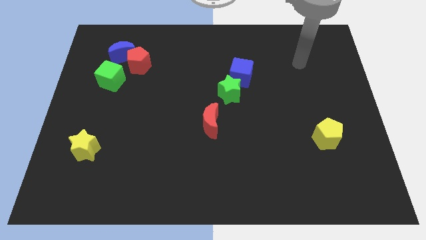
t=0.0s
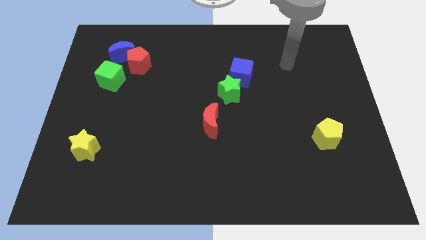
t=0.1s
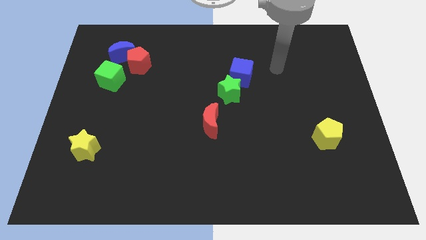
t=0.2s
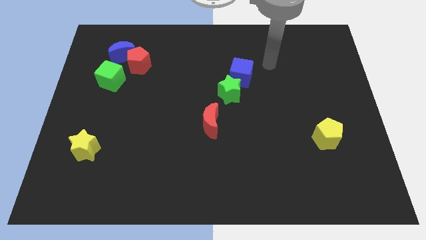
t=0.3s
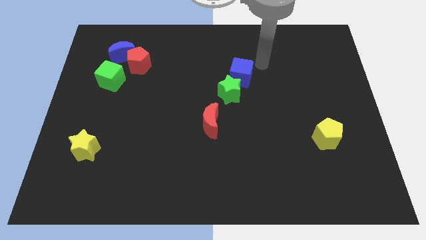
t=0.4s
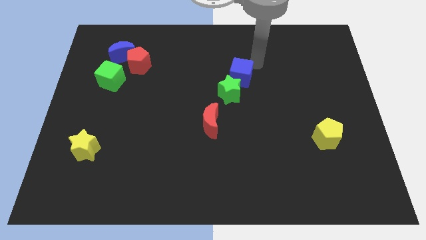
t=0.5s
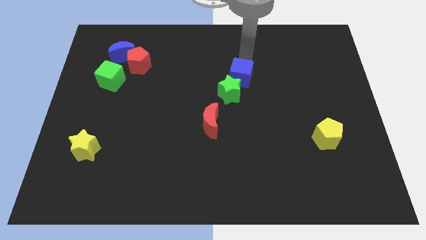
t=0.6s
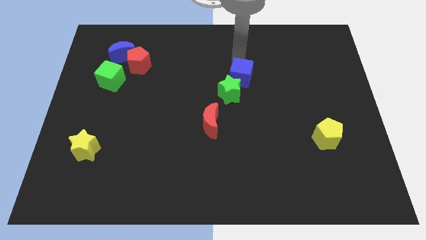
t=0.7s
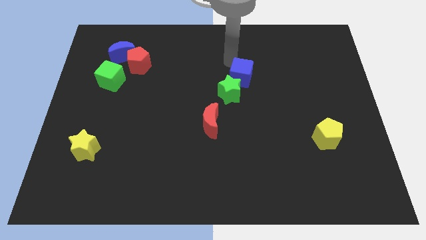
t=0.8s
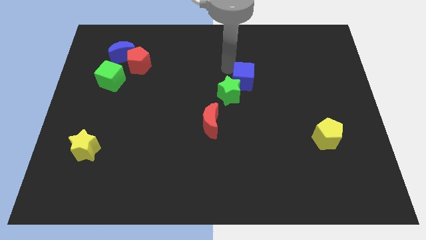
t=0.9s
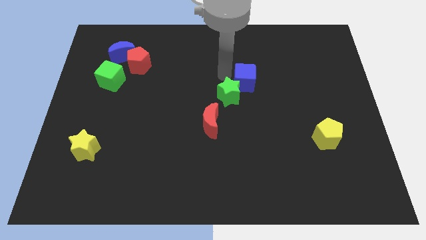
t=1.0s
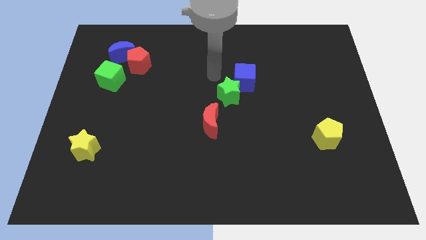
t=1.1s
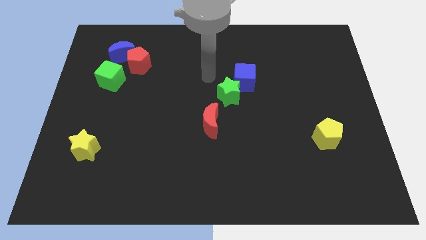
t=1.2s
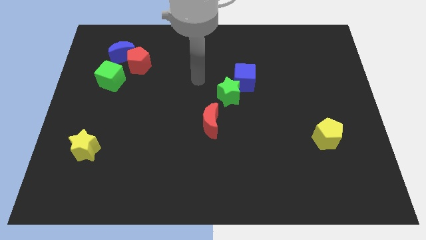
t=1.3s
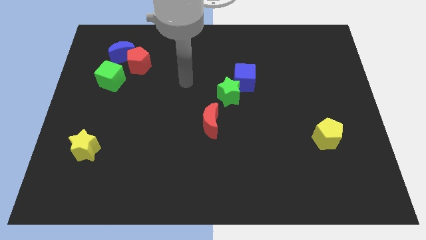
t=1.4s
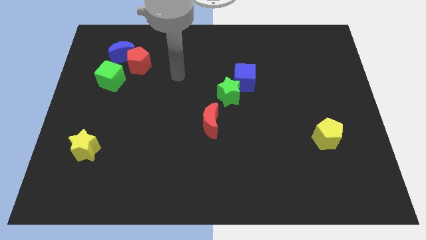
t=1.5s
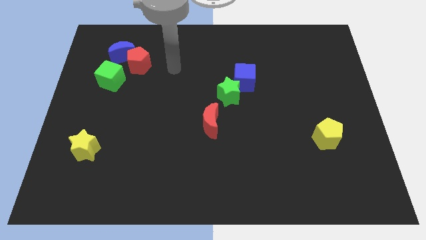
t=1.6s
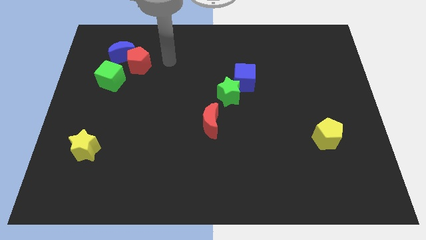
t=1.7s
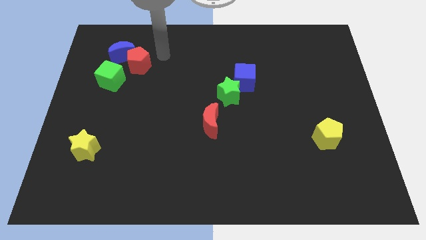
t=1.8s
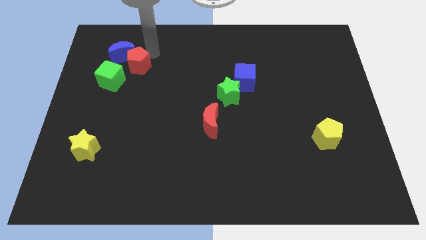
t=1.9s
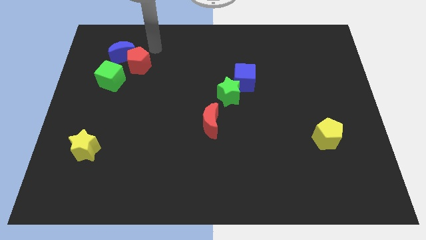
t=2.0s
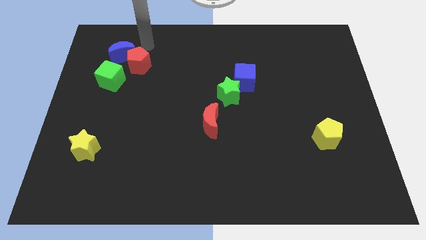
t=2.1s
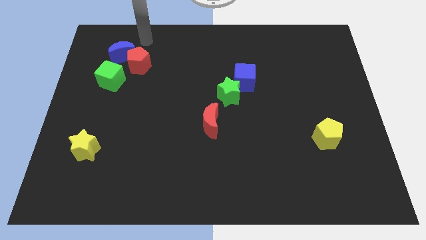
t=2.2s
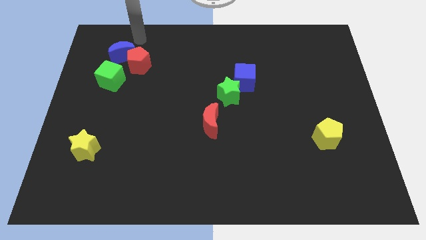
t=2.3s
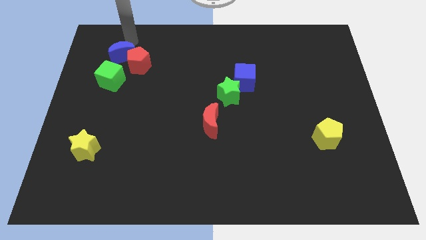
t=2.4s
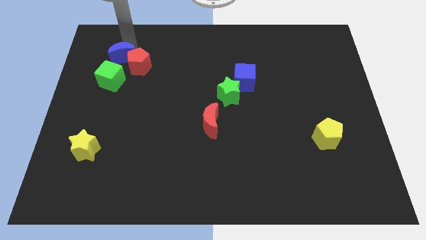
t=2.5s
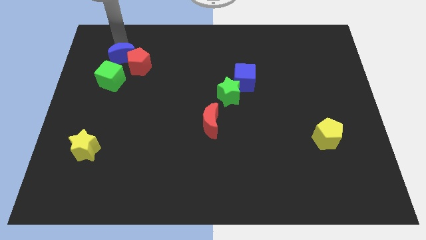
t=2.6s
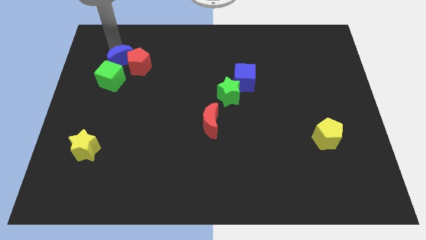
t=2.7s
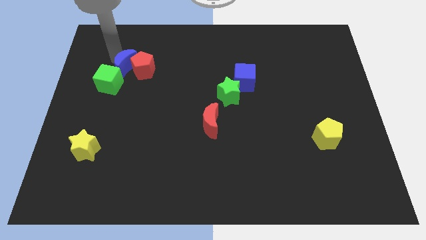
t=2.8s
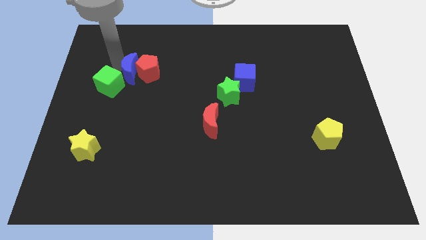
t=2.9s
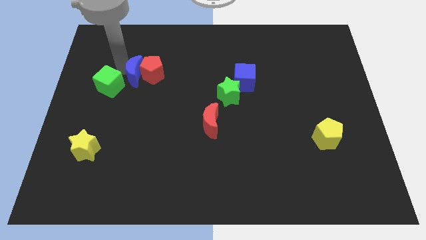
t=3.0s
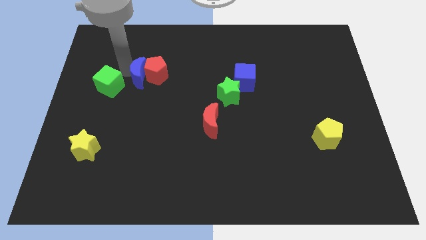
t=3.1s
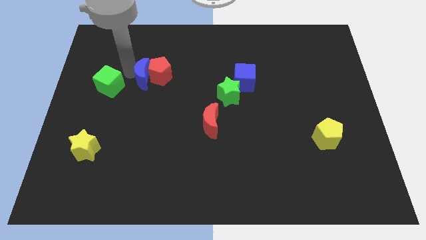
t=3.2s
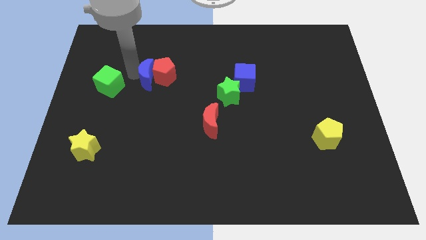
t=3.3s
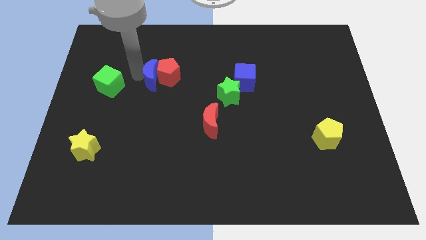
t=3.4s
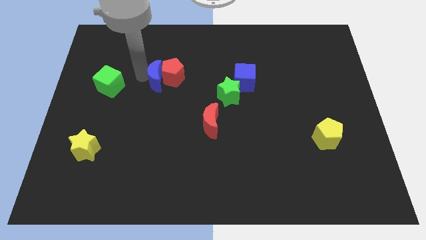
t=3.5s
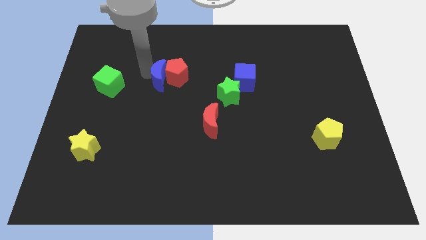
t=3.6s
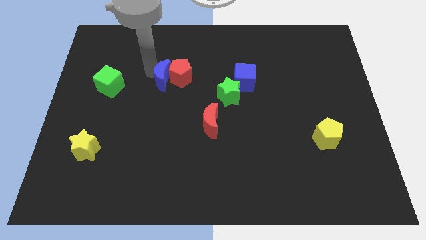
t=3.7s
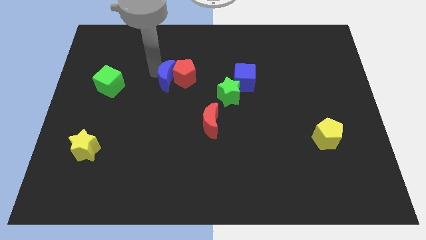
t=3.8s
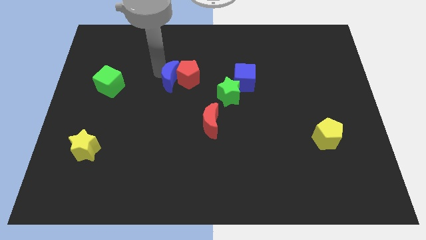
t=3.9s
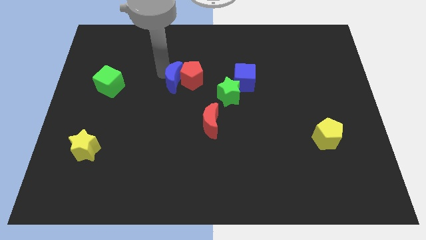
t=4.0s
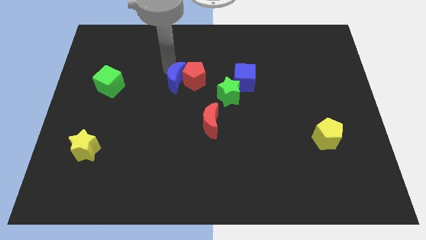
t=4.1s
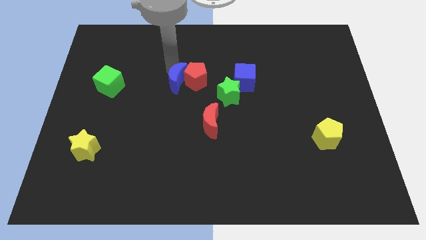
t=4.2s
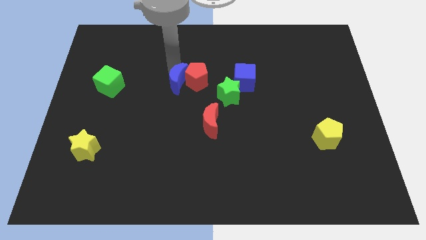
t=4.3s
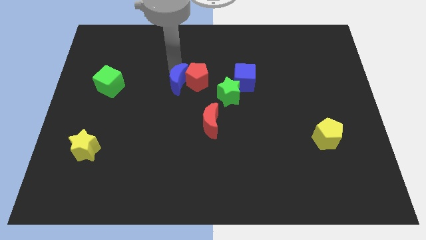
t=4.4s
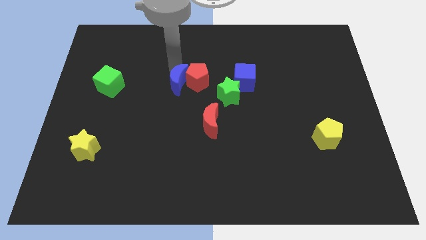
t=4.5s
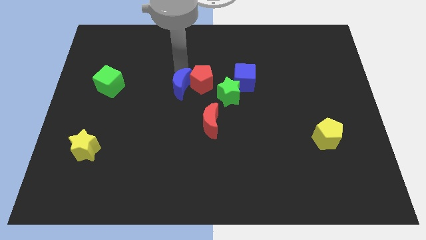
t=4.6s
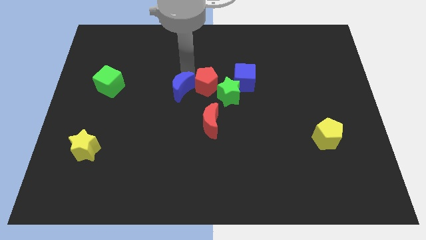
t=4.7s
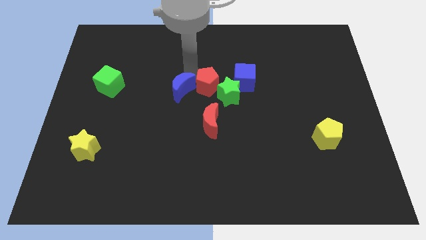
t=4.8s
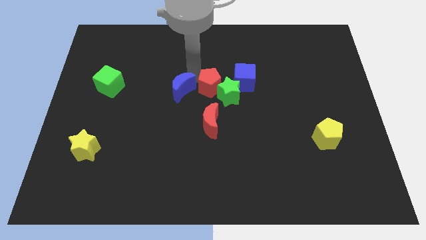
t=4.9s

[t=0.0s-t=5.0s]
slide the red pentagon to the green star

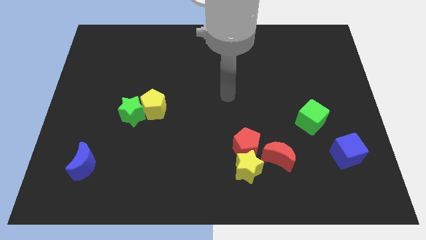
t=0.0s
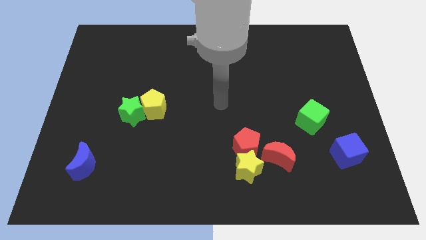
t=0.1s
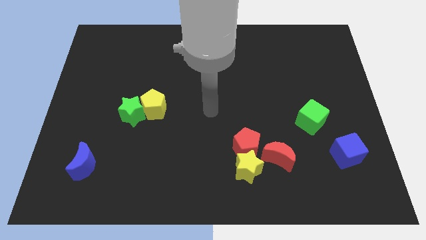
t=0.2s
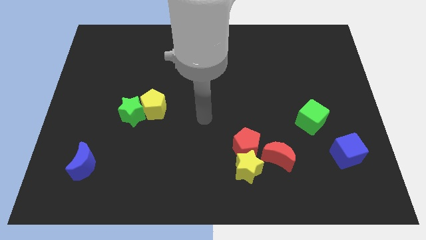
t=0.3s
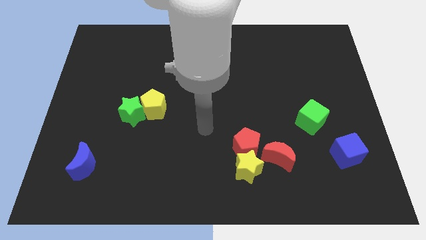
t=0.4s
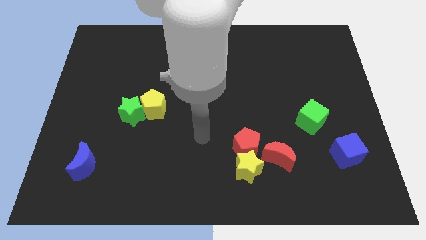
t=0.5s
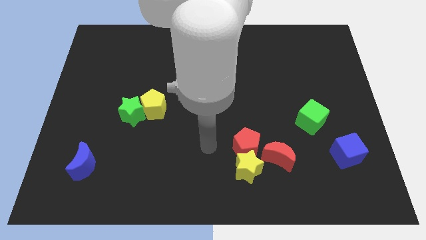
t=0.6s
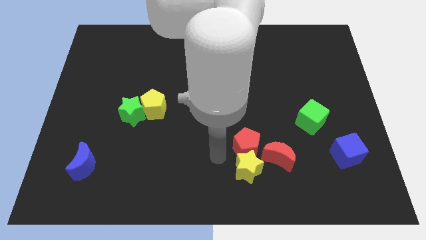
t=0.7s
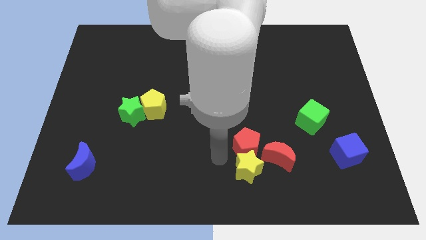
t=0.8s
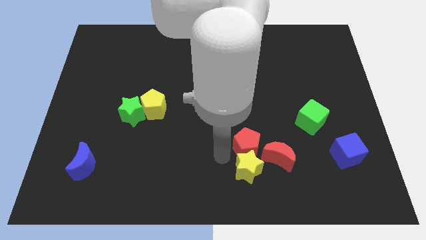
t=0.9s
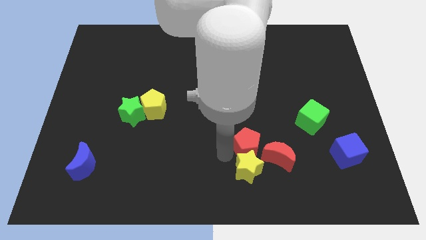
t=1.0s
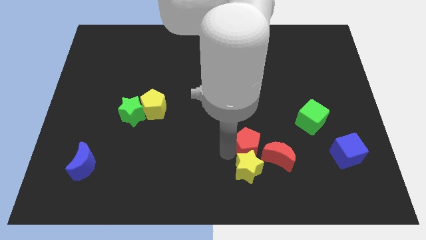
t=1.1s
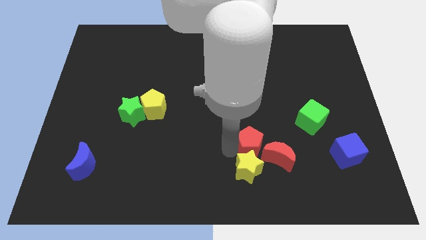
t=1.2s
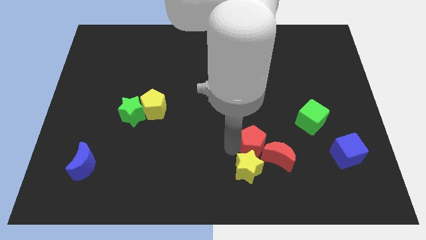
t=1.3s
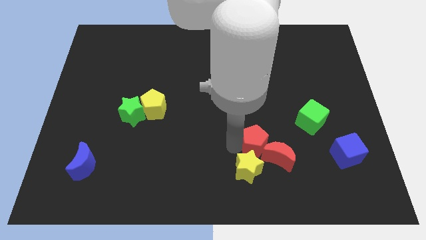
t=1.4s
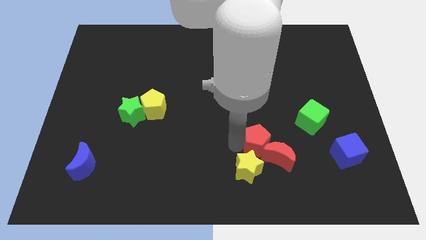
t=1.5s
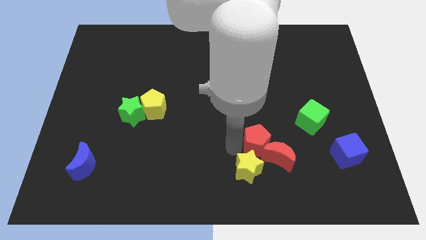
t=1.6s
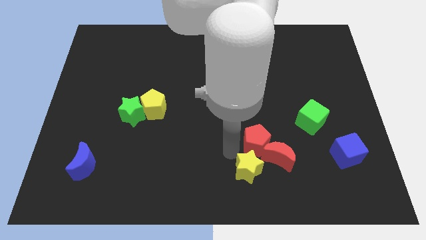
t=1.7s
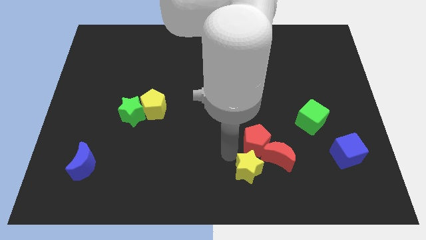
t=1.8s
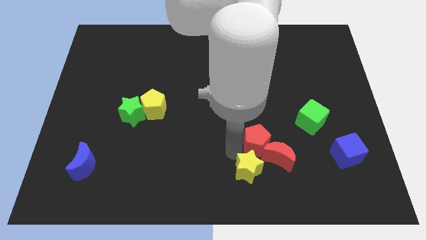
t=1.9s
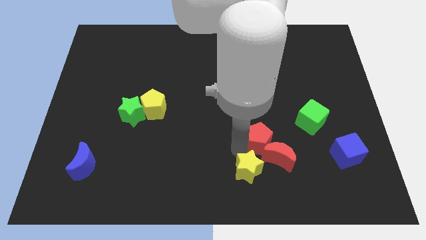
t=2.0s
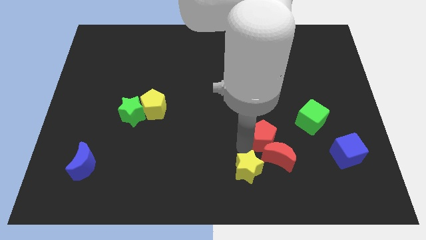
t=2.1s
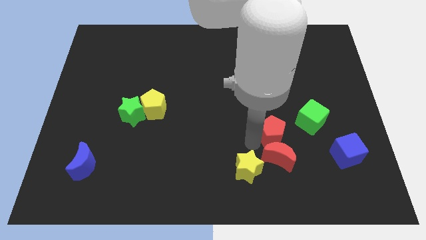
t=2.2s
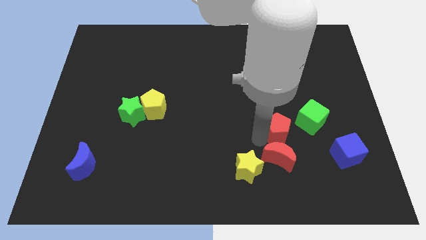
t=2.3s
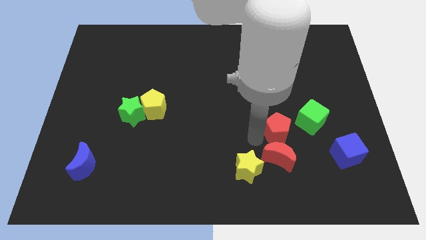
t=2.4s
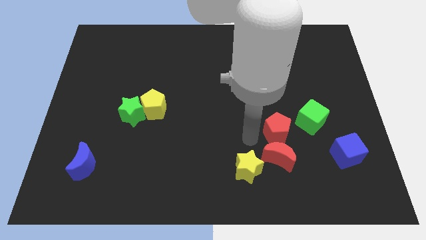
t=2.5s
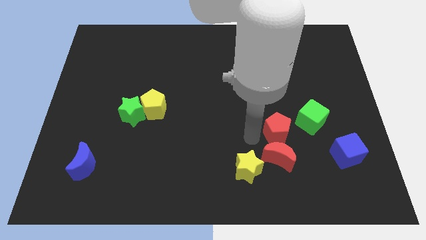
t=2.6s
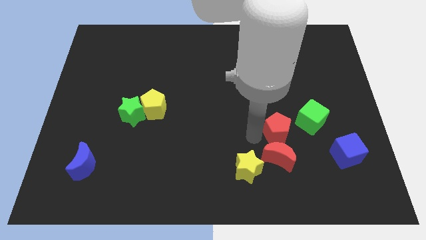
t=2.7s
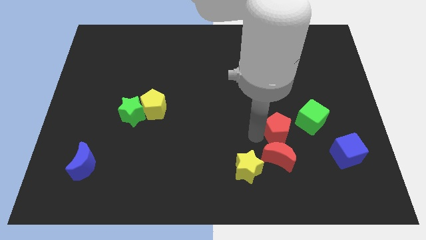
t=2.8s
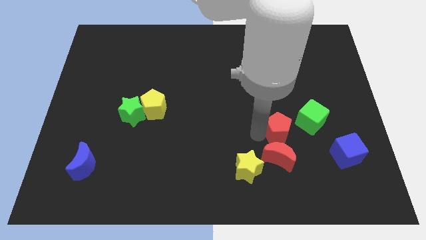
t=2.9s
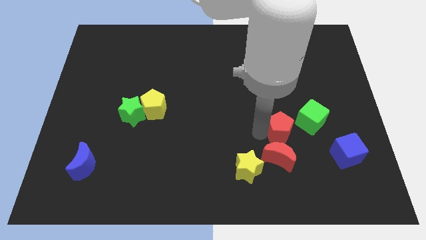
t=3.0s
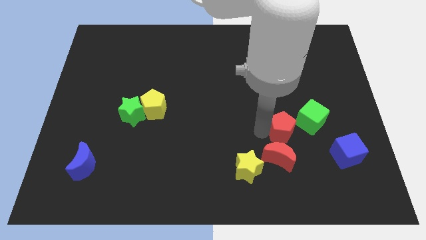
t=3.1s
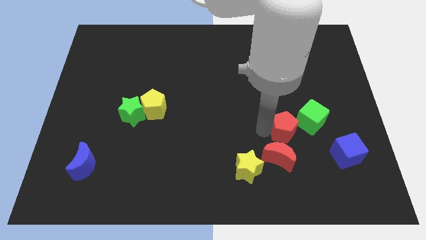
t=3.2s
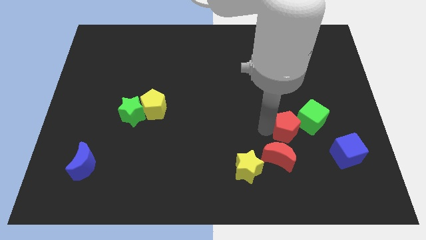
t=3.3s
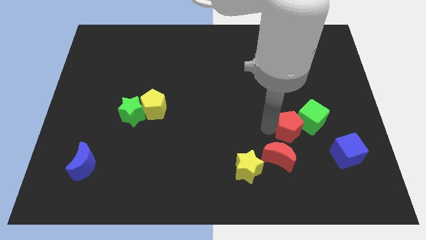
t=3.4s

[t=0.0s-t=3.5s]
push the red pentagon next to the green cube
